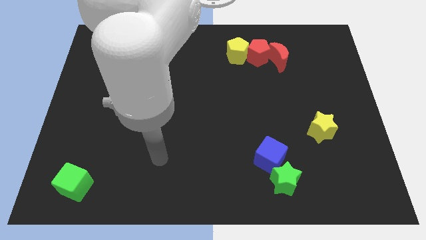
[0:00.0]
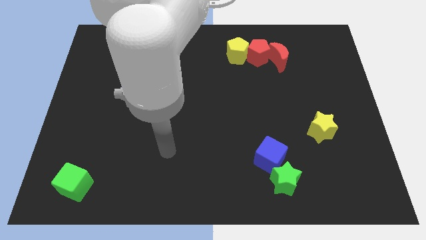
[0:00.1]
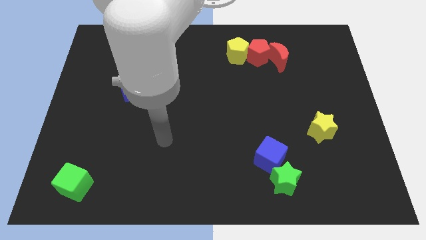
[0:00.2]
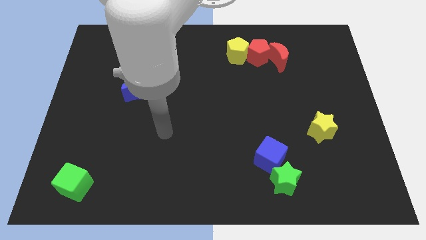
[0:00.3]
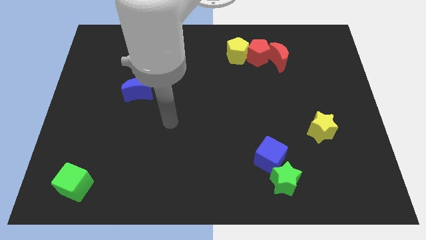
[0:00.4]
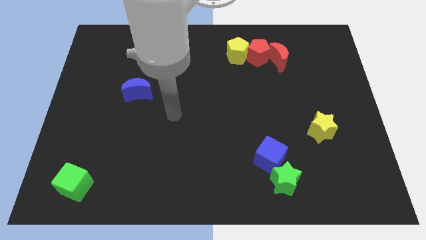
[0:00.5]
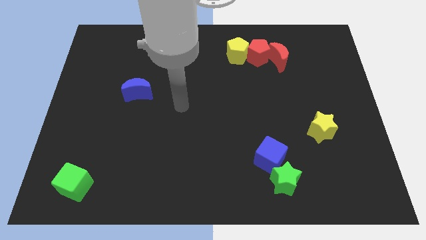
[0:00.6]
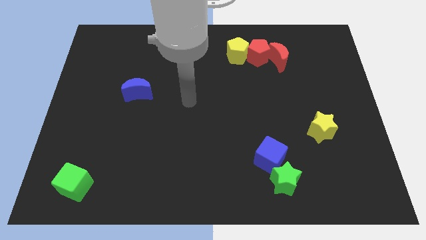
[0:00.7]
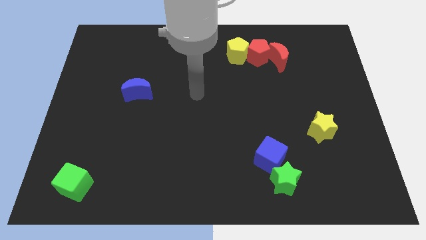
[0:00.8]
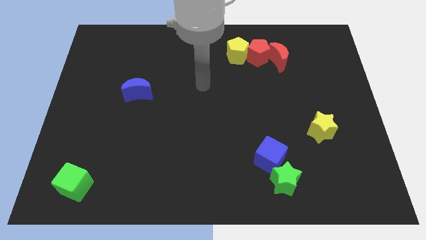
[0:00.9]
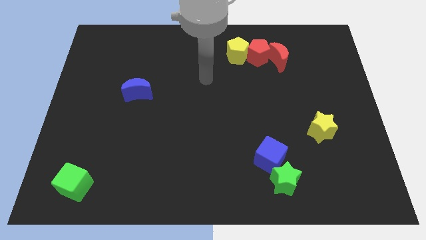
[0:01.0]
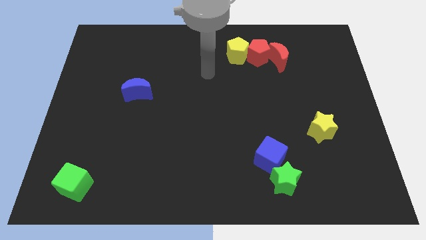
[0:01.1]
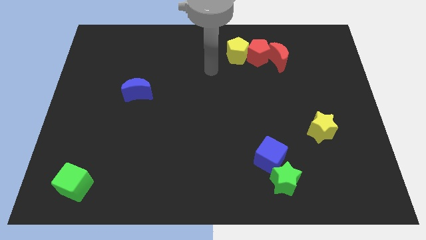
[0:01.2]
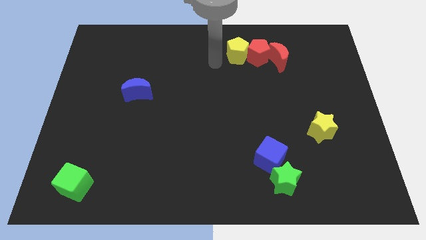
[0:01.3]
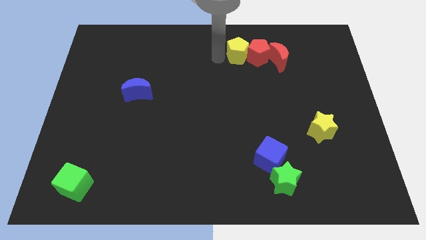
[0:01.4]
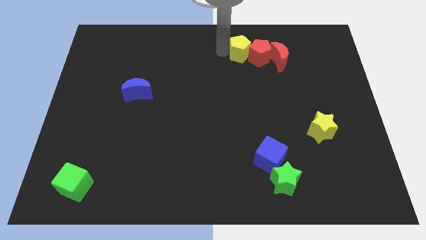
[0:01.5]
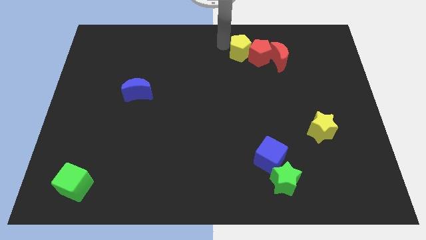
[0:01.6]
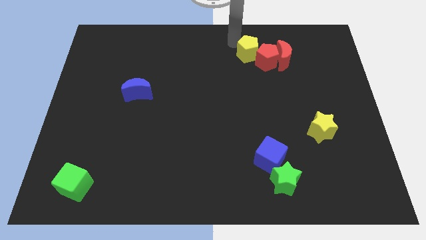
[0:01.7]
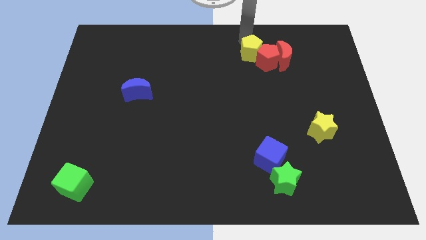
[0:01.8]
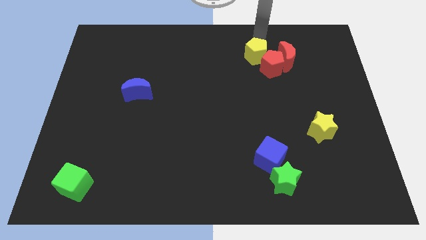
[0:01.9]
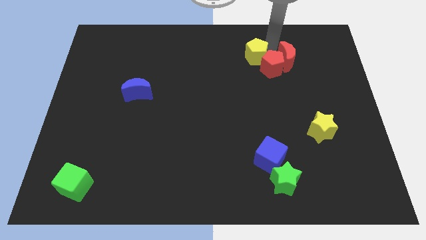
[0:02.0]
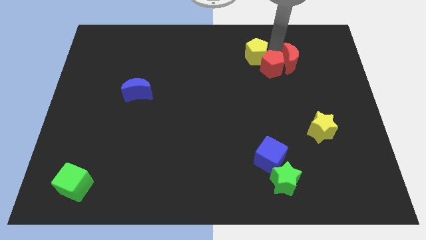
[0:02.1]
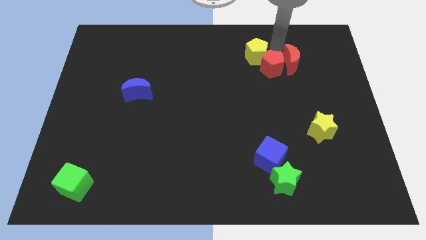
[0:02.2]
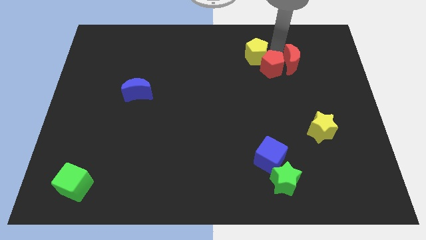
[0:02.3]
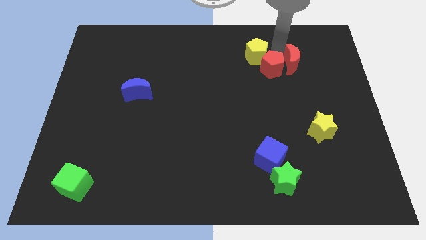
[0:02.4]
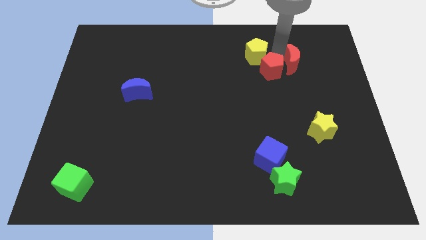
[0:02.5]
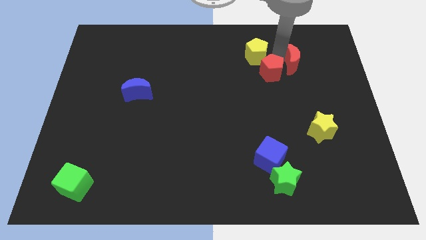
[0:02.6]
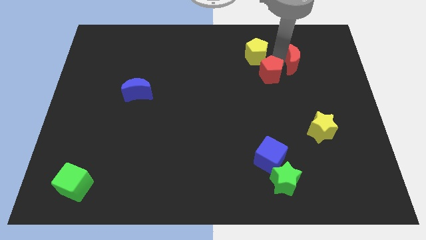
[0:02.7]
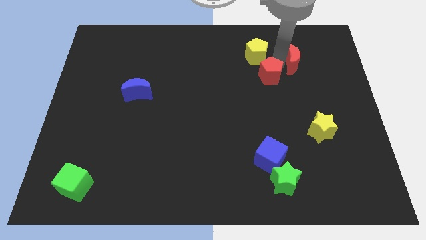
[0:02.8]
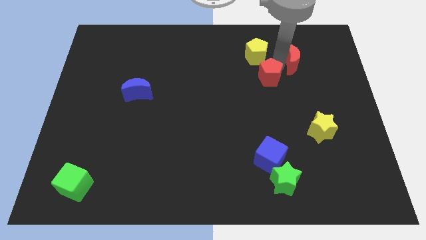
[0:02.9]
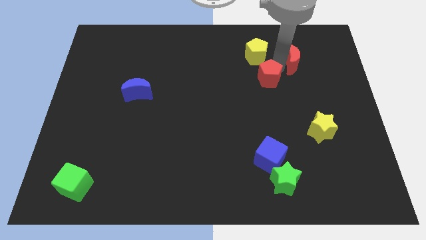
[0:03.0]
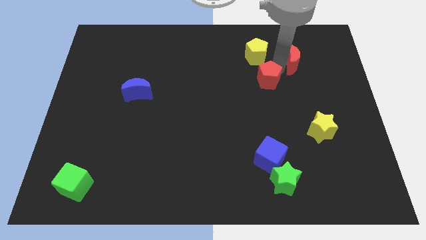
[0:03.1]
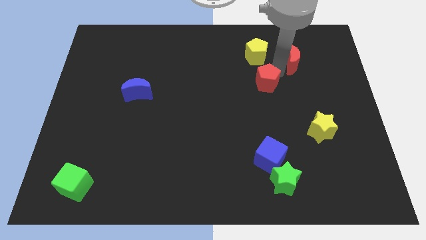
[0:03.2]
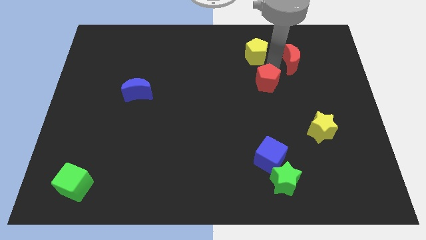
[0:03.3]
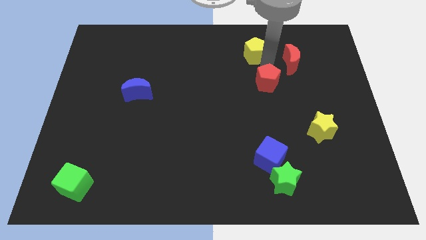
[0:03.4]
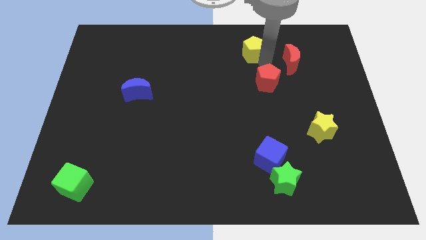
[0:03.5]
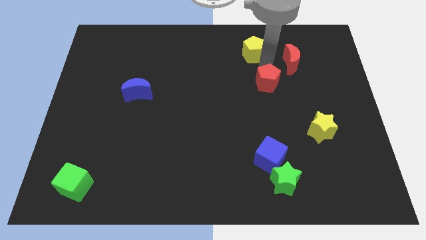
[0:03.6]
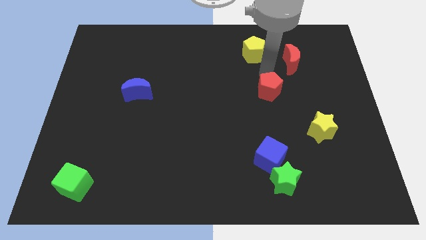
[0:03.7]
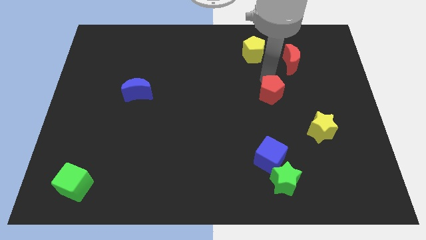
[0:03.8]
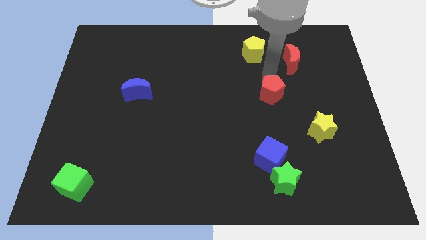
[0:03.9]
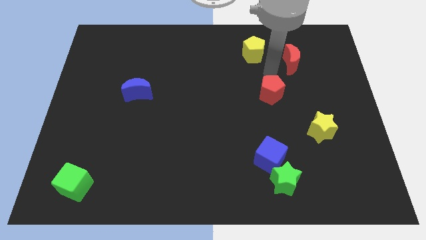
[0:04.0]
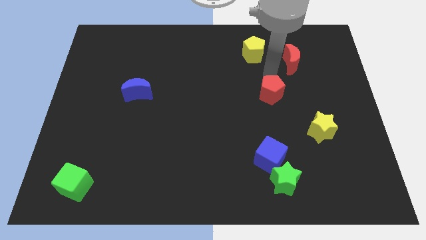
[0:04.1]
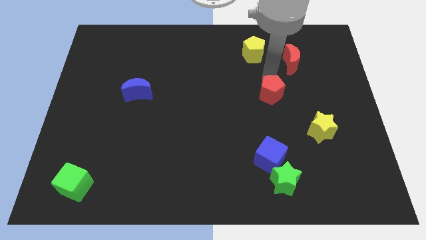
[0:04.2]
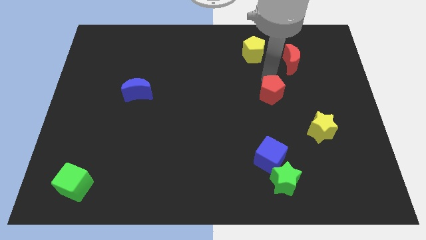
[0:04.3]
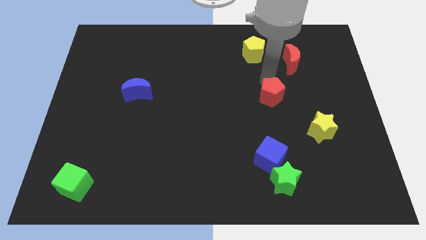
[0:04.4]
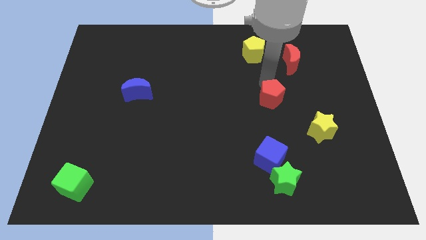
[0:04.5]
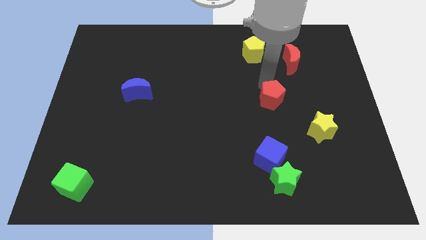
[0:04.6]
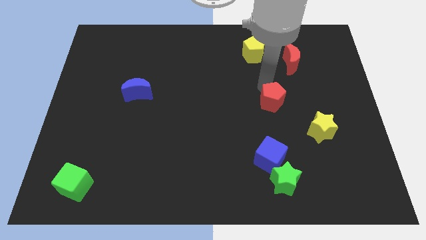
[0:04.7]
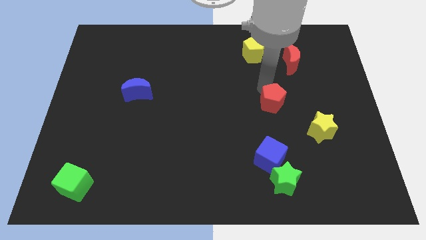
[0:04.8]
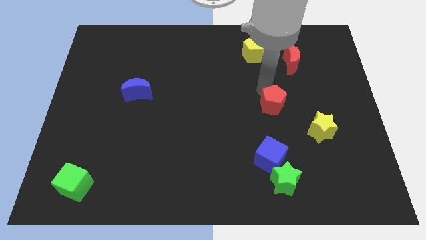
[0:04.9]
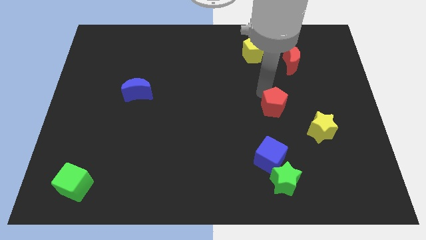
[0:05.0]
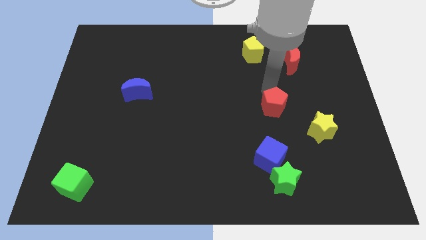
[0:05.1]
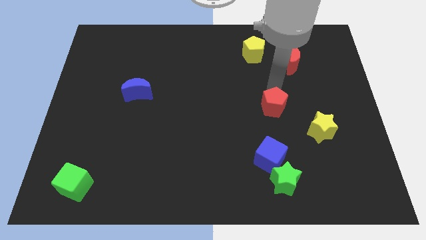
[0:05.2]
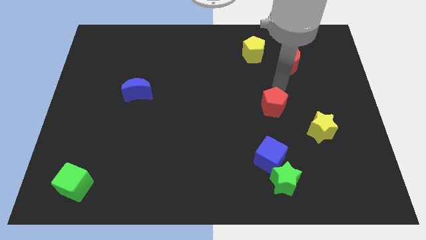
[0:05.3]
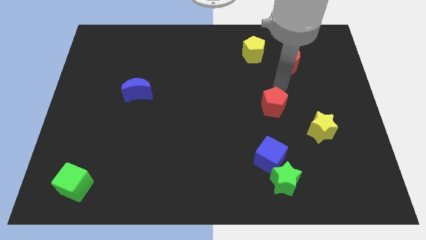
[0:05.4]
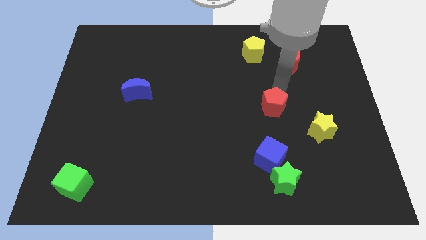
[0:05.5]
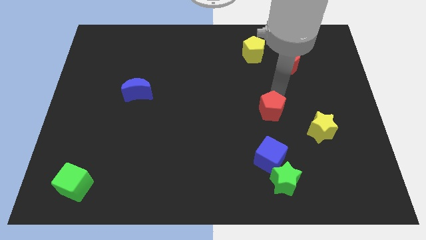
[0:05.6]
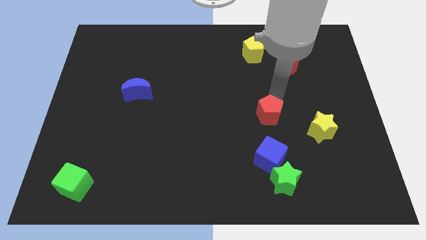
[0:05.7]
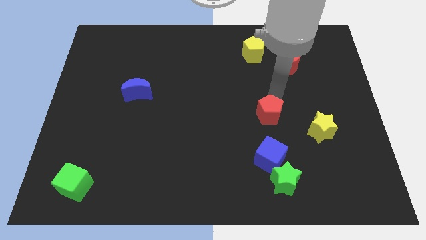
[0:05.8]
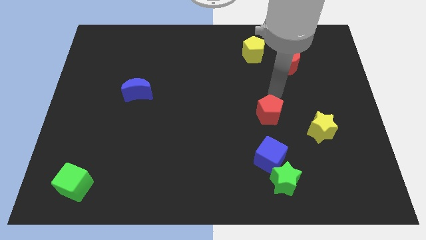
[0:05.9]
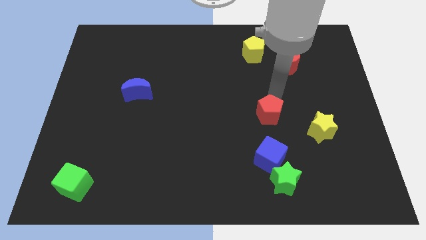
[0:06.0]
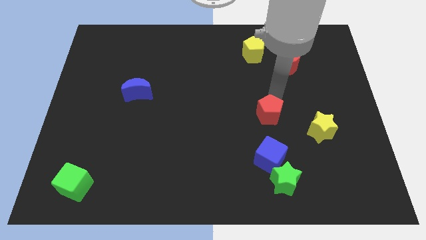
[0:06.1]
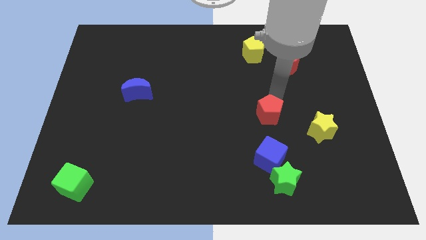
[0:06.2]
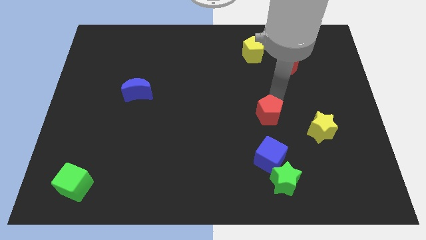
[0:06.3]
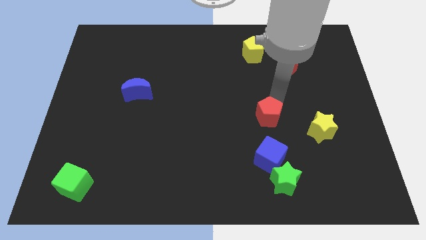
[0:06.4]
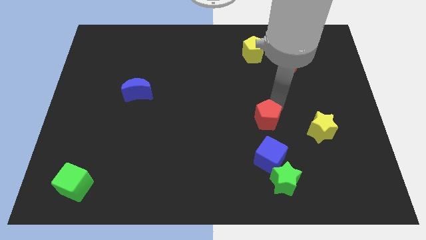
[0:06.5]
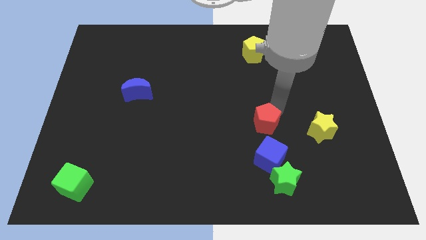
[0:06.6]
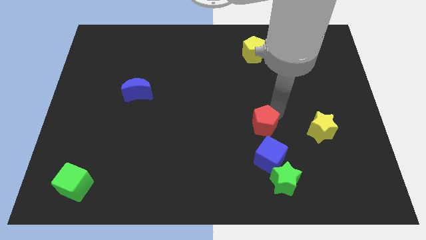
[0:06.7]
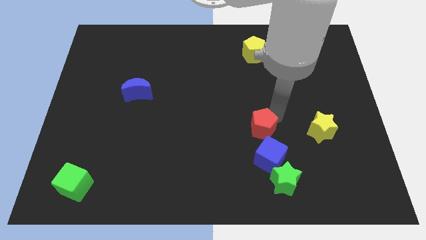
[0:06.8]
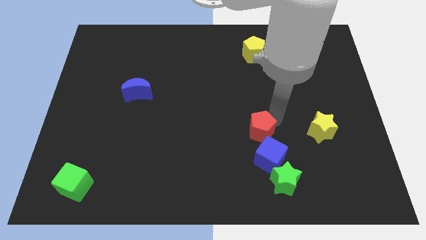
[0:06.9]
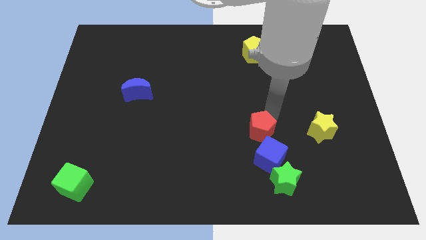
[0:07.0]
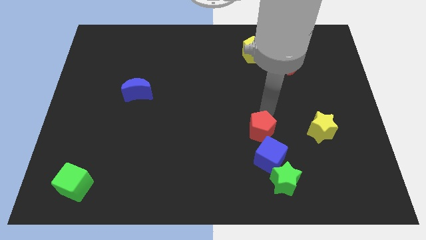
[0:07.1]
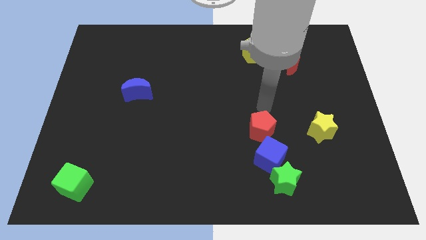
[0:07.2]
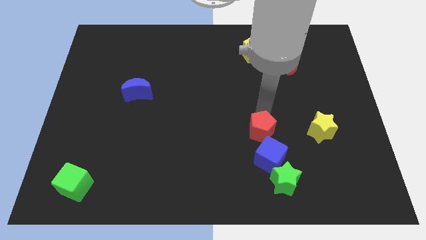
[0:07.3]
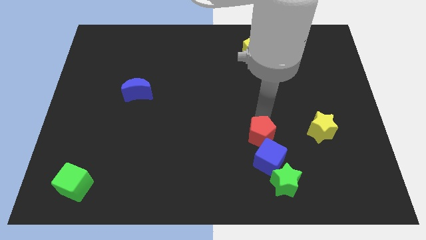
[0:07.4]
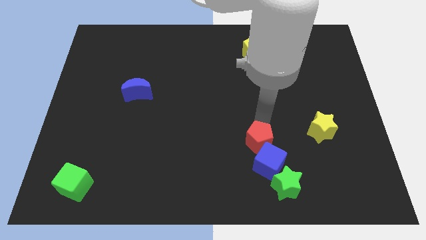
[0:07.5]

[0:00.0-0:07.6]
push the red pentagon to the top left of the green star
